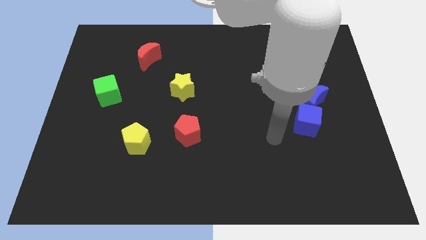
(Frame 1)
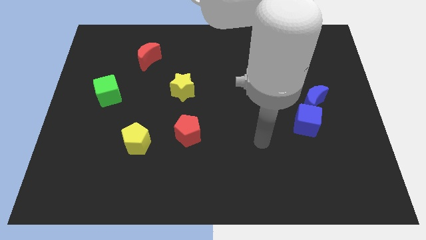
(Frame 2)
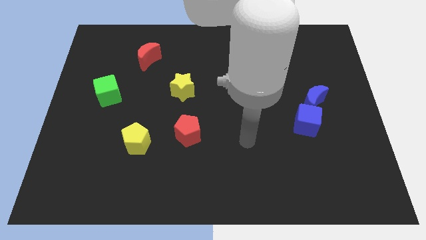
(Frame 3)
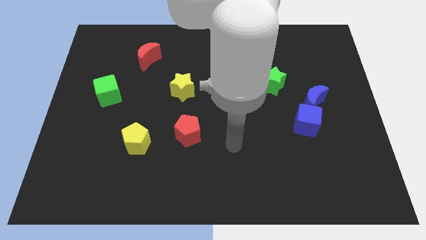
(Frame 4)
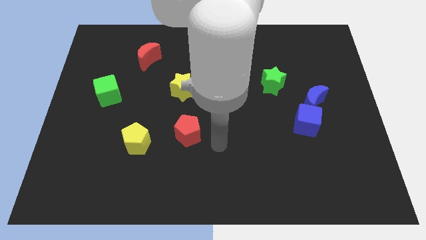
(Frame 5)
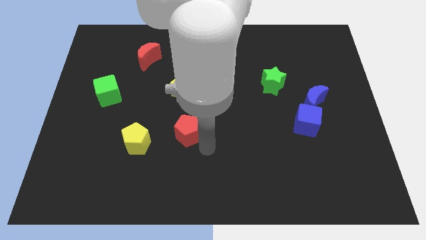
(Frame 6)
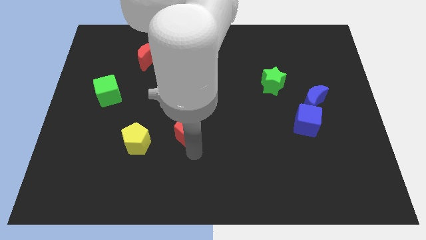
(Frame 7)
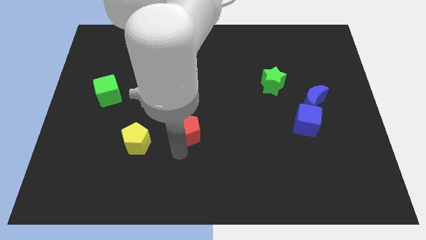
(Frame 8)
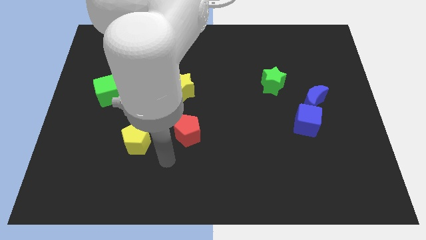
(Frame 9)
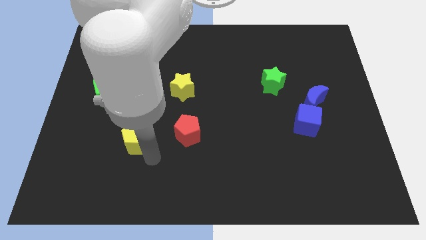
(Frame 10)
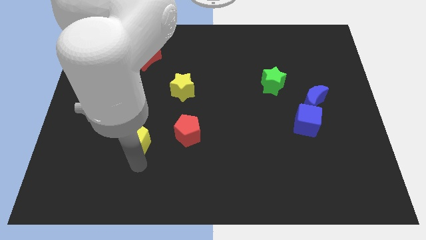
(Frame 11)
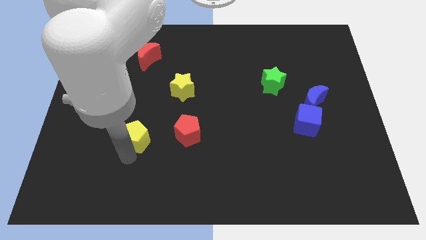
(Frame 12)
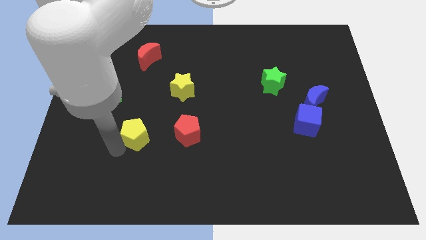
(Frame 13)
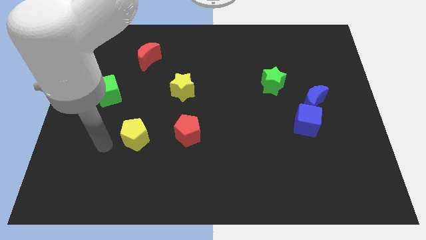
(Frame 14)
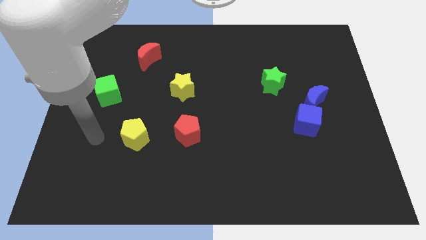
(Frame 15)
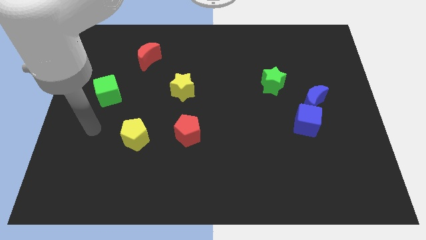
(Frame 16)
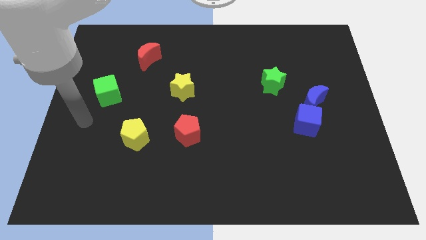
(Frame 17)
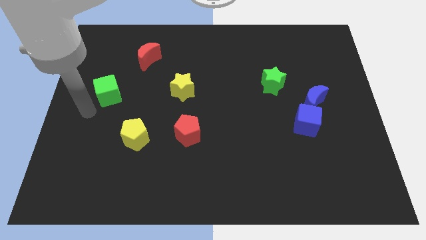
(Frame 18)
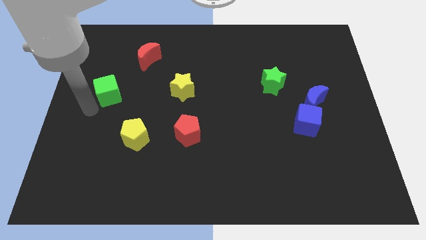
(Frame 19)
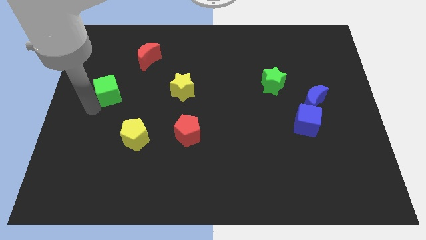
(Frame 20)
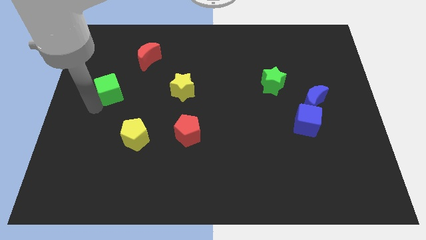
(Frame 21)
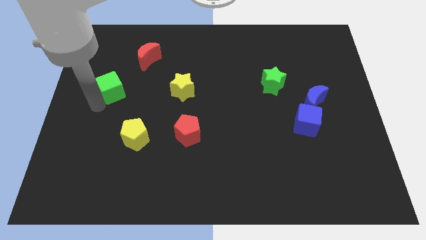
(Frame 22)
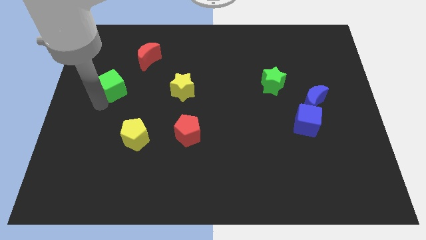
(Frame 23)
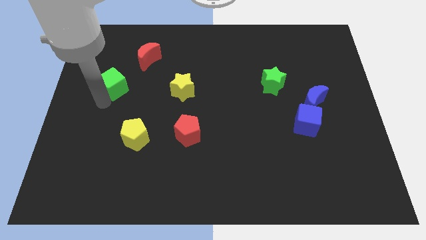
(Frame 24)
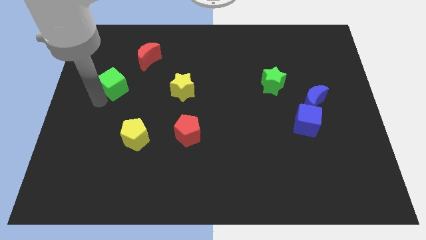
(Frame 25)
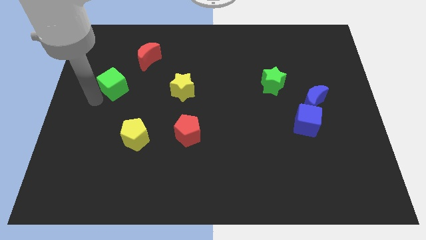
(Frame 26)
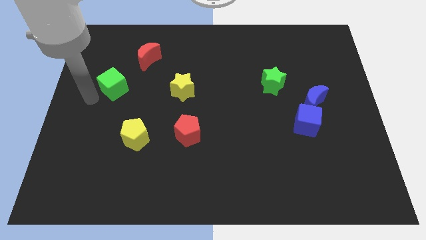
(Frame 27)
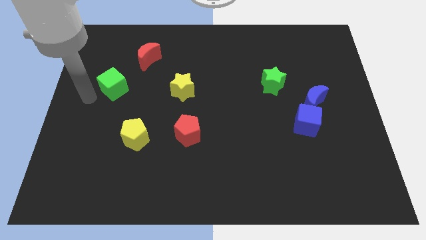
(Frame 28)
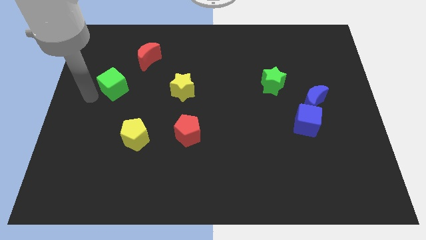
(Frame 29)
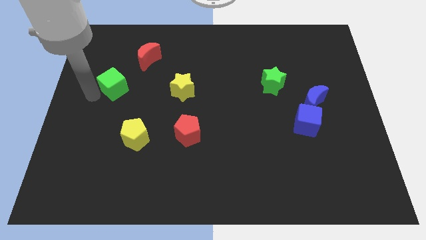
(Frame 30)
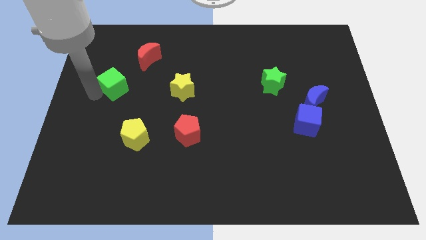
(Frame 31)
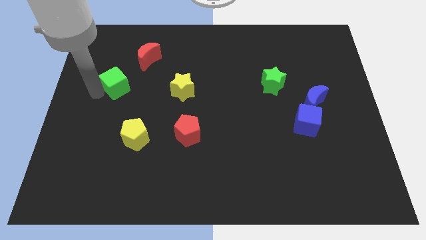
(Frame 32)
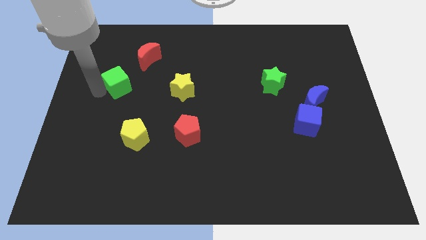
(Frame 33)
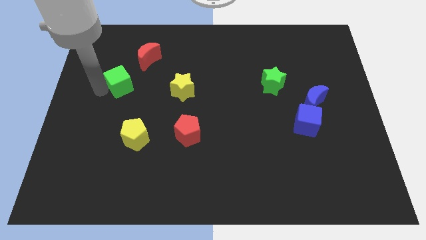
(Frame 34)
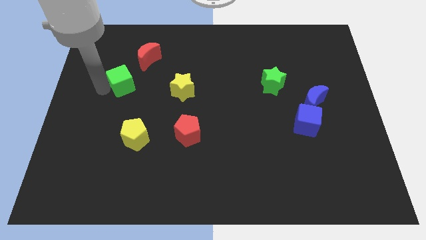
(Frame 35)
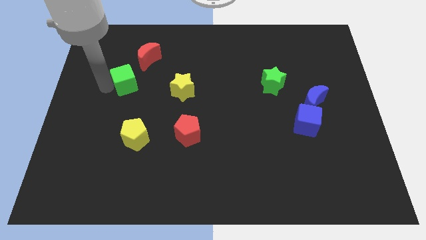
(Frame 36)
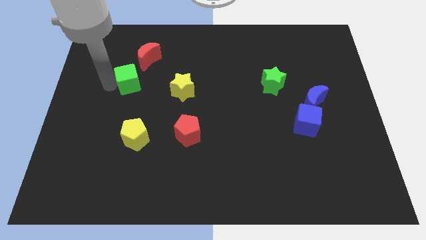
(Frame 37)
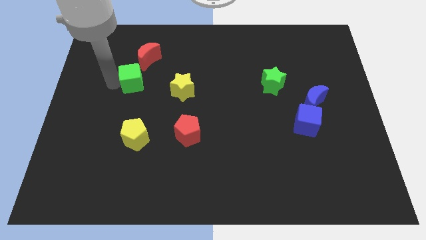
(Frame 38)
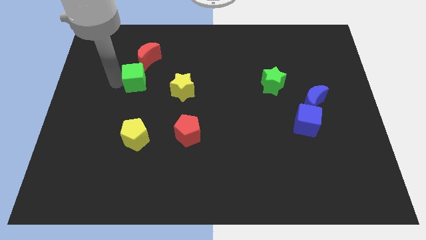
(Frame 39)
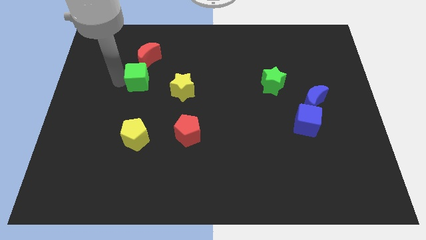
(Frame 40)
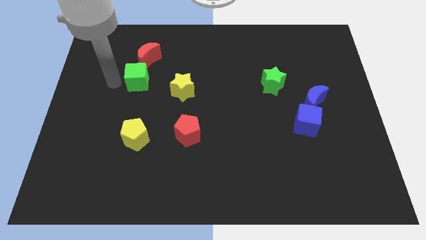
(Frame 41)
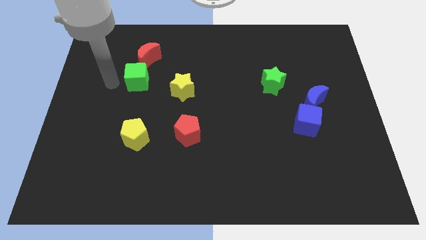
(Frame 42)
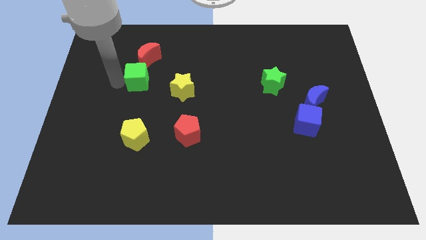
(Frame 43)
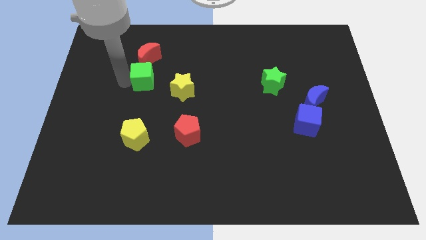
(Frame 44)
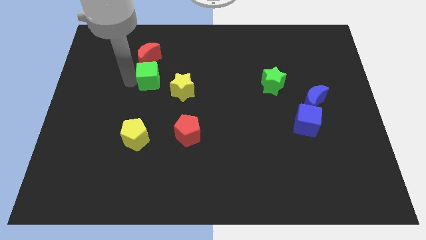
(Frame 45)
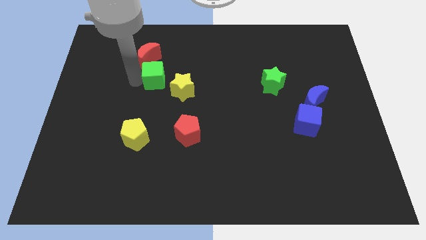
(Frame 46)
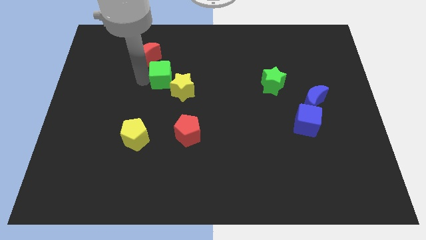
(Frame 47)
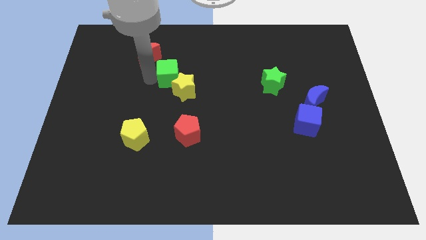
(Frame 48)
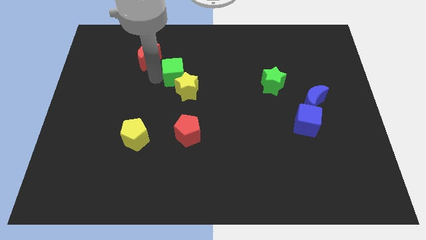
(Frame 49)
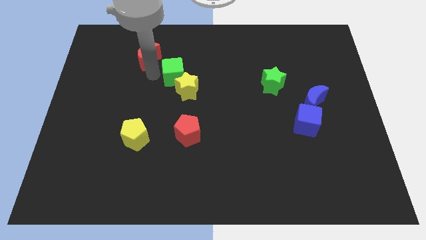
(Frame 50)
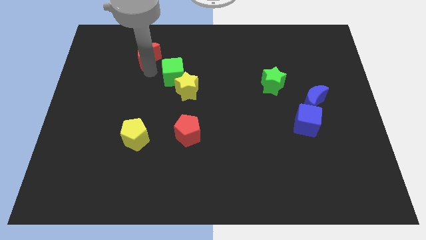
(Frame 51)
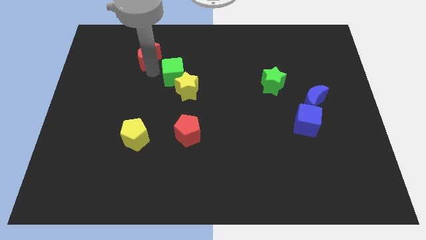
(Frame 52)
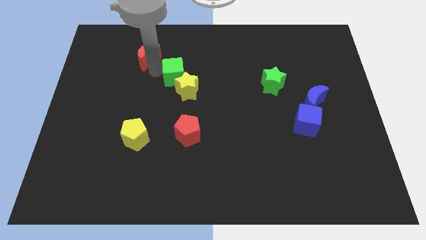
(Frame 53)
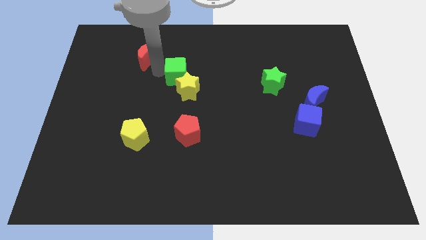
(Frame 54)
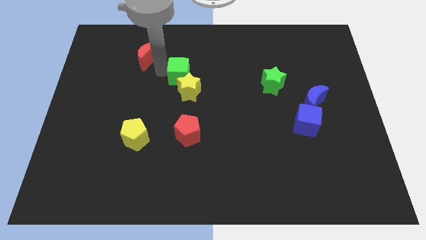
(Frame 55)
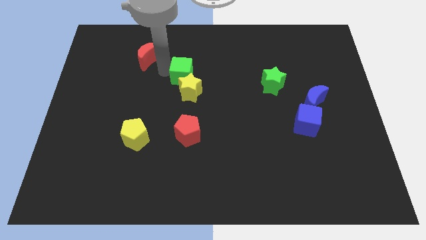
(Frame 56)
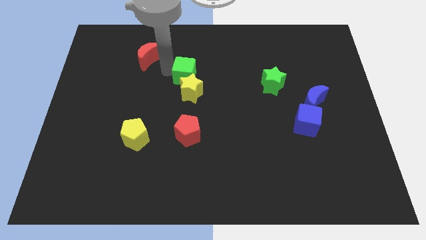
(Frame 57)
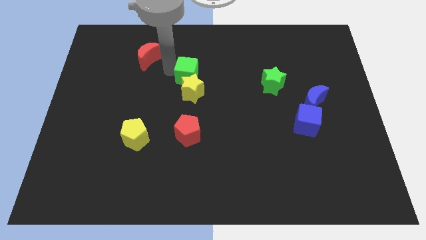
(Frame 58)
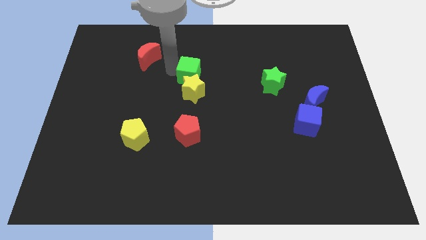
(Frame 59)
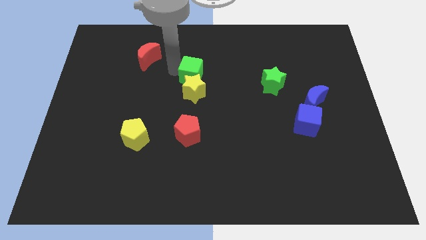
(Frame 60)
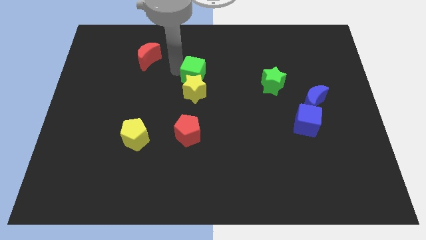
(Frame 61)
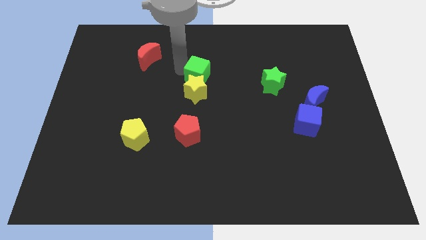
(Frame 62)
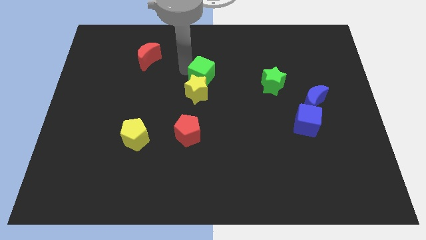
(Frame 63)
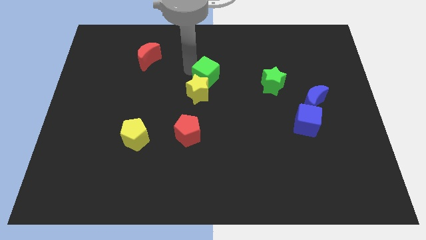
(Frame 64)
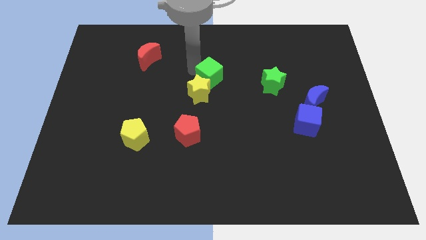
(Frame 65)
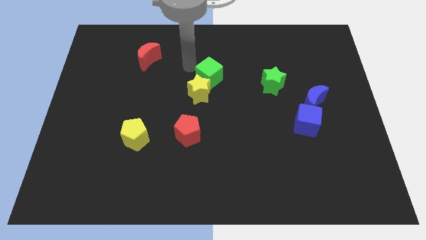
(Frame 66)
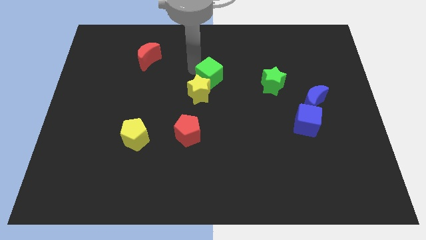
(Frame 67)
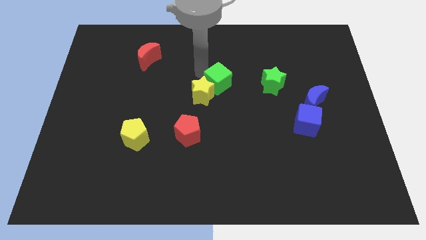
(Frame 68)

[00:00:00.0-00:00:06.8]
slide the green cube just right of the yellow star

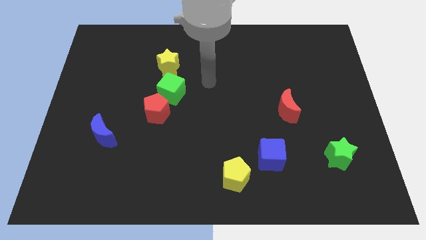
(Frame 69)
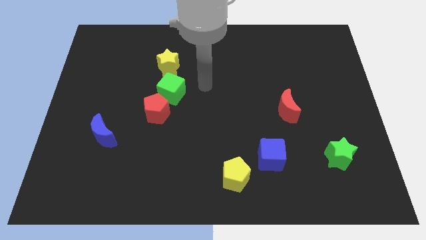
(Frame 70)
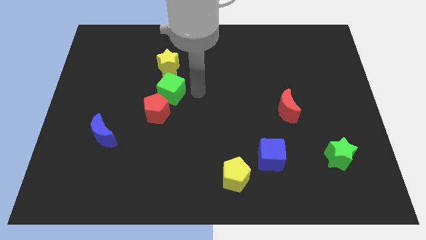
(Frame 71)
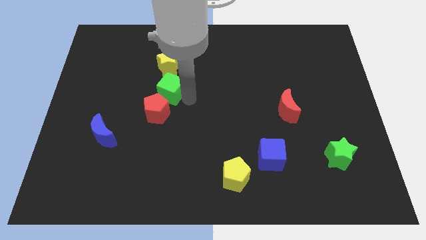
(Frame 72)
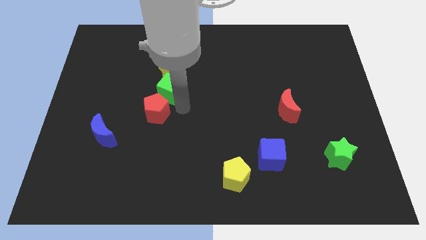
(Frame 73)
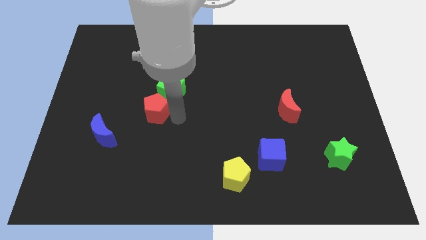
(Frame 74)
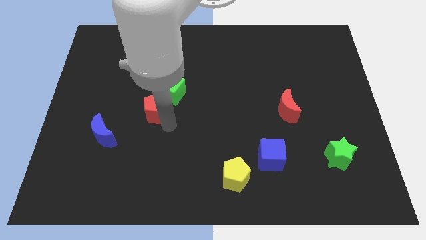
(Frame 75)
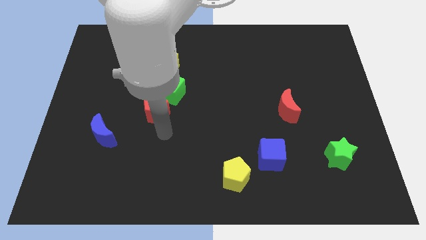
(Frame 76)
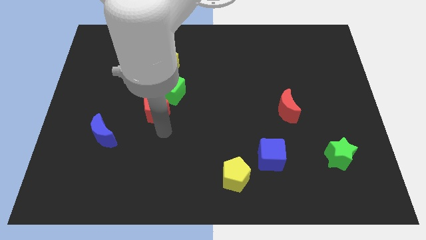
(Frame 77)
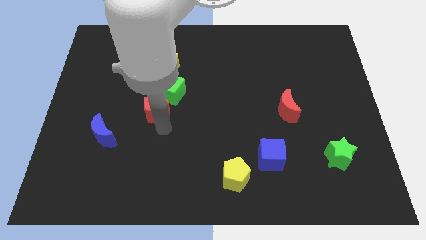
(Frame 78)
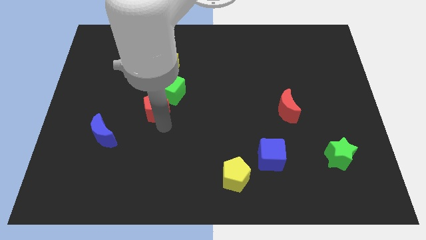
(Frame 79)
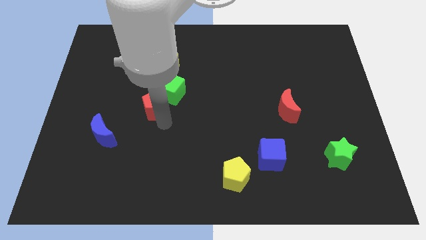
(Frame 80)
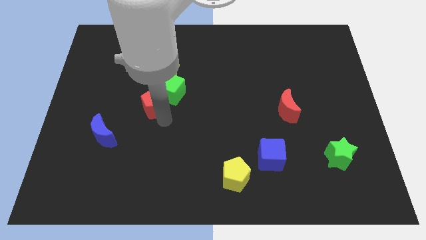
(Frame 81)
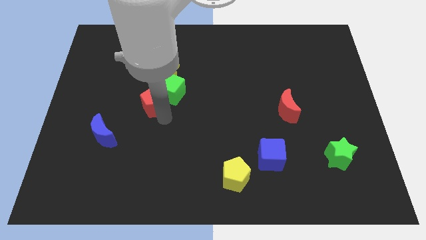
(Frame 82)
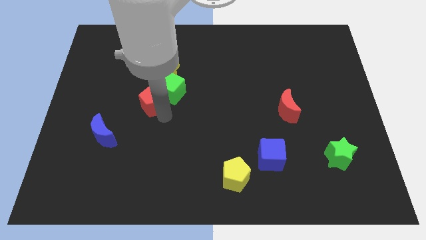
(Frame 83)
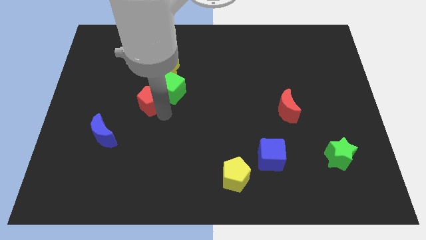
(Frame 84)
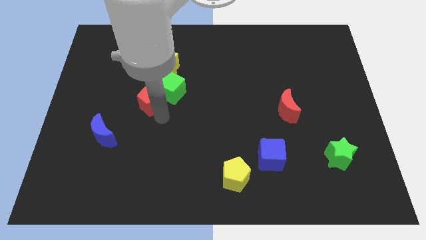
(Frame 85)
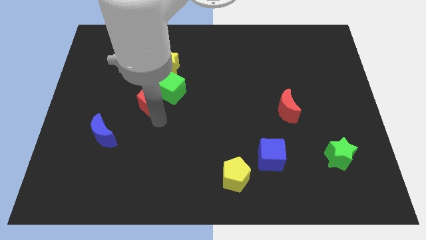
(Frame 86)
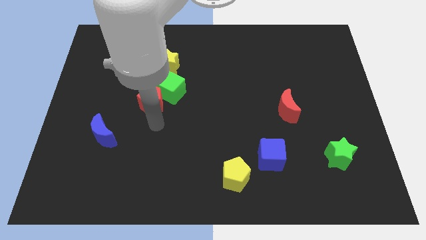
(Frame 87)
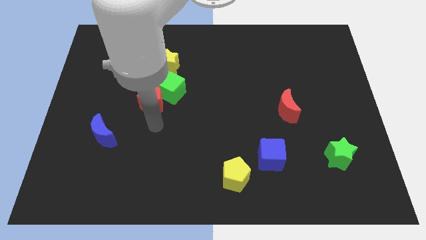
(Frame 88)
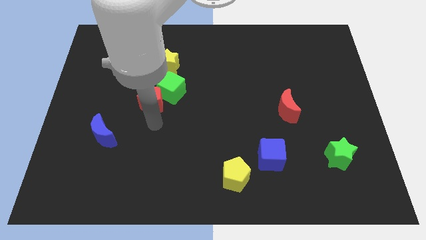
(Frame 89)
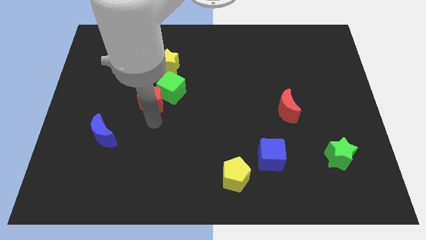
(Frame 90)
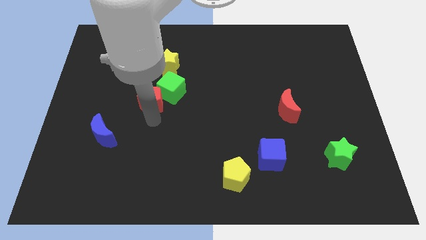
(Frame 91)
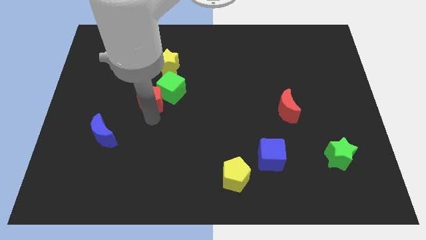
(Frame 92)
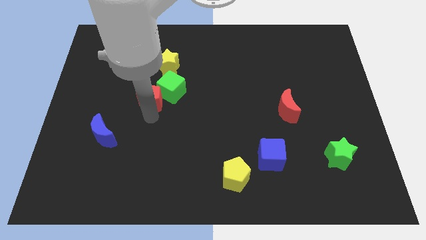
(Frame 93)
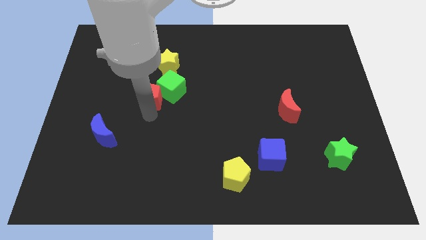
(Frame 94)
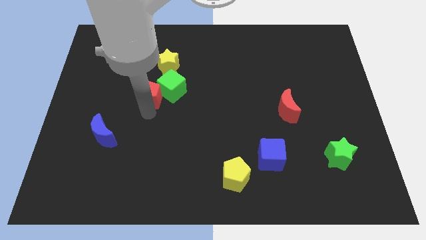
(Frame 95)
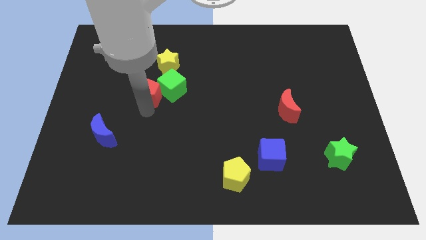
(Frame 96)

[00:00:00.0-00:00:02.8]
move the red pentagon to the bottom left side of the yellow star
